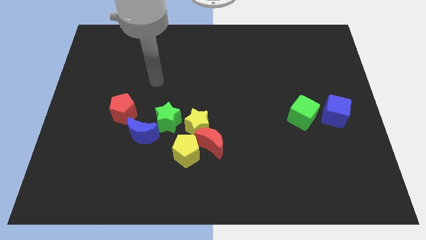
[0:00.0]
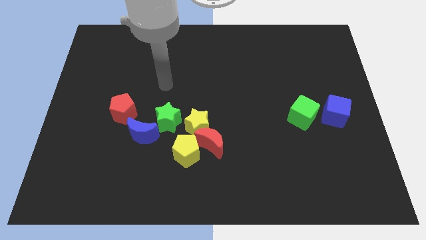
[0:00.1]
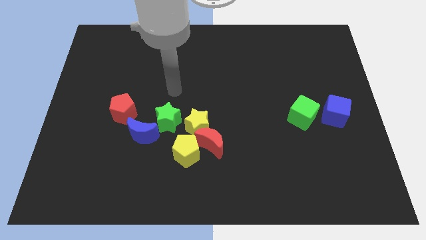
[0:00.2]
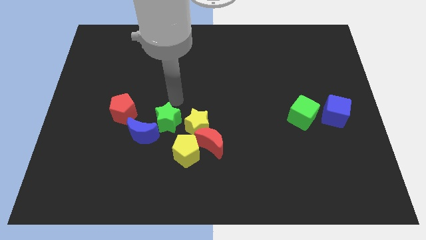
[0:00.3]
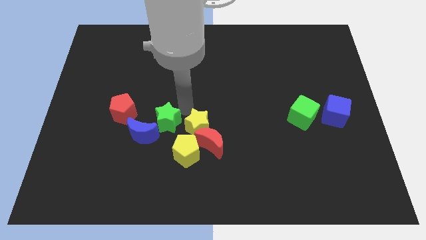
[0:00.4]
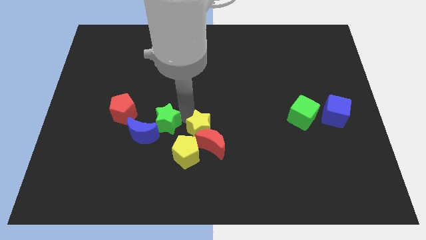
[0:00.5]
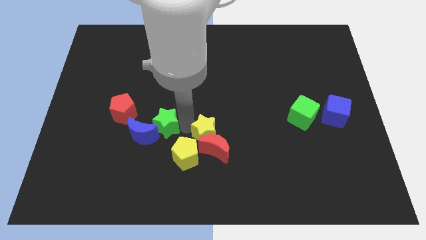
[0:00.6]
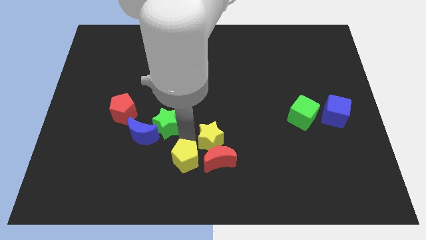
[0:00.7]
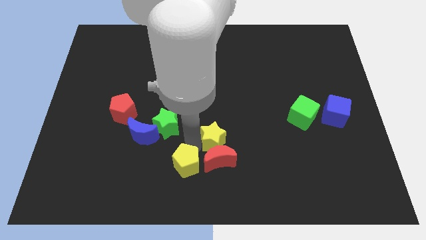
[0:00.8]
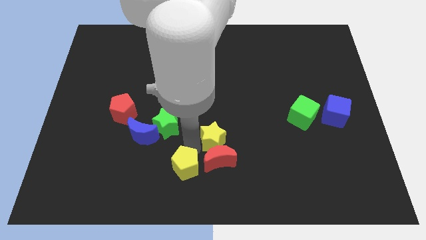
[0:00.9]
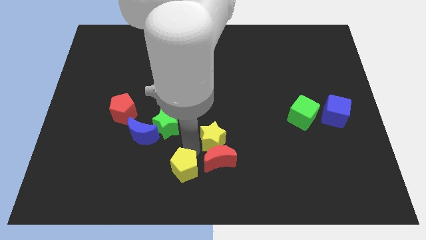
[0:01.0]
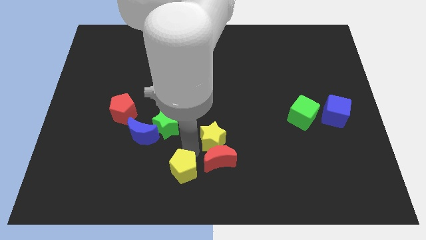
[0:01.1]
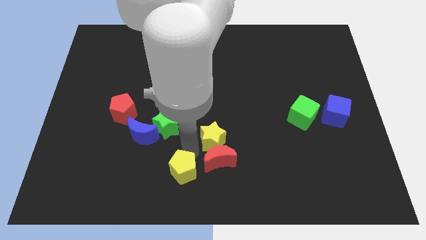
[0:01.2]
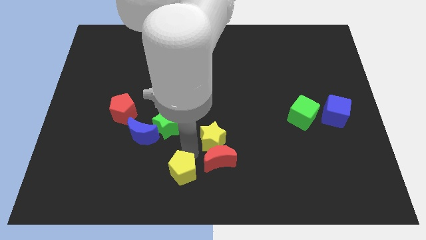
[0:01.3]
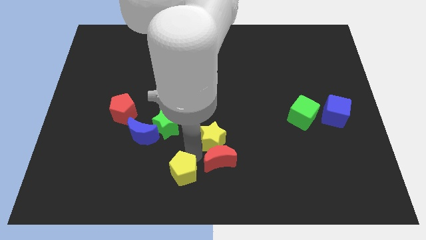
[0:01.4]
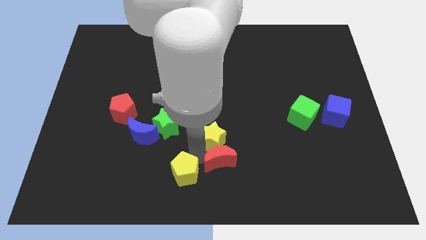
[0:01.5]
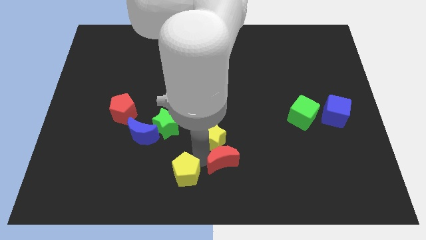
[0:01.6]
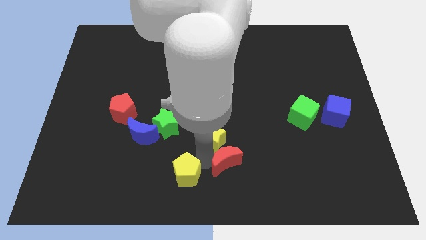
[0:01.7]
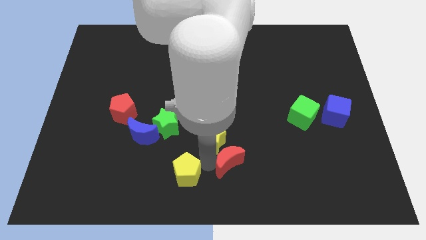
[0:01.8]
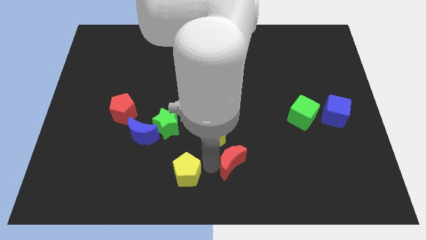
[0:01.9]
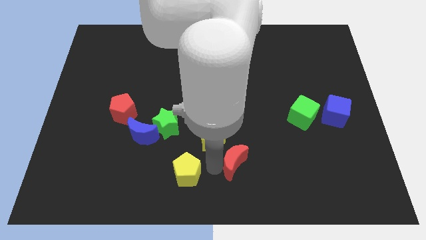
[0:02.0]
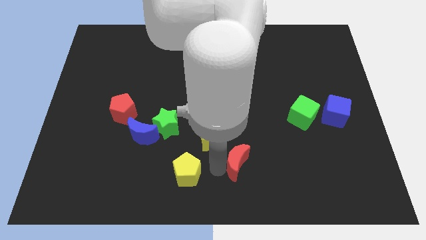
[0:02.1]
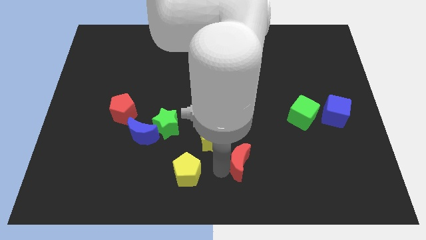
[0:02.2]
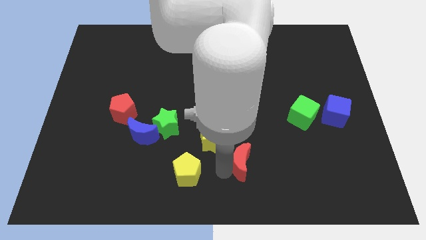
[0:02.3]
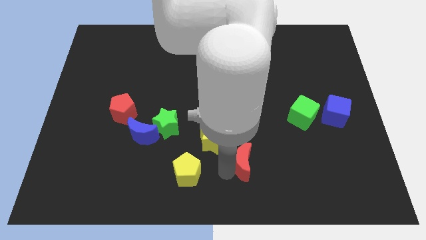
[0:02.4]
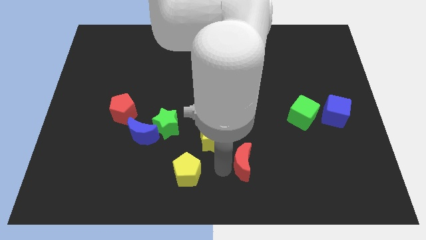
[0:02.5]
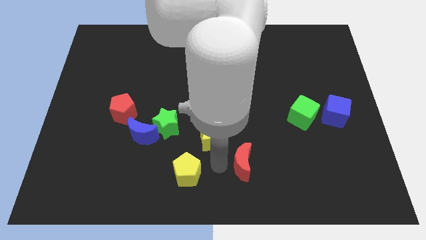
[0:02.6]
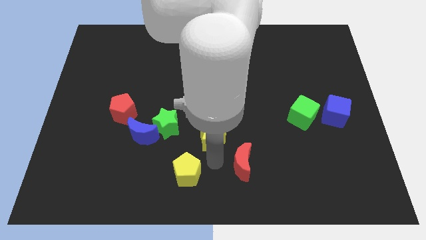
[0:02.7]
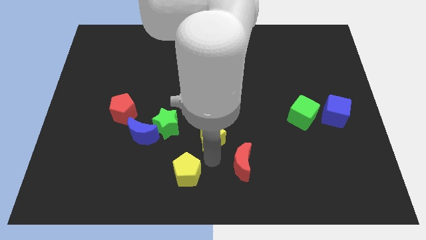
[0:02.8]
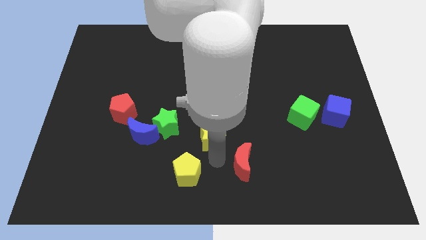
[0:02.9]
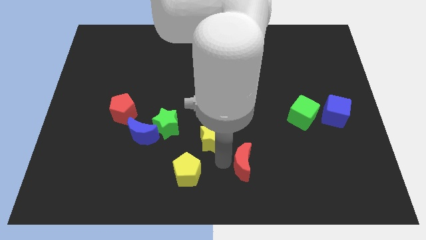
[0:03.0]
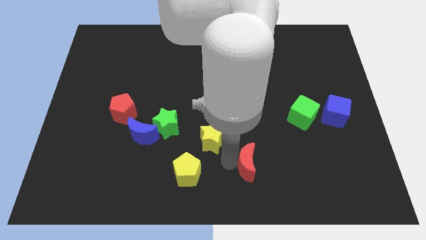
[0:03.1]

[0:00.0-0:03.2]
move the red moon away from the yellow star and yellow pentagon

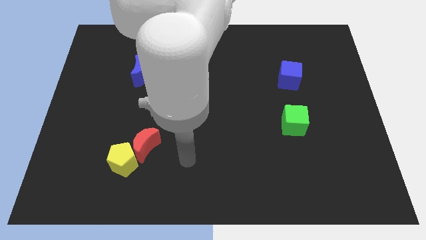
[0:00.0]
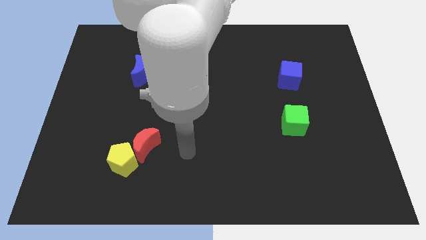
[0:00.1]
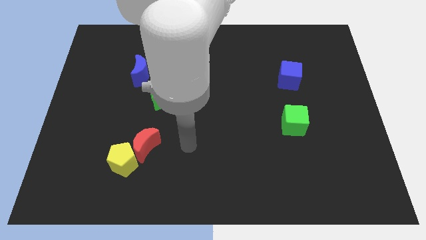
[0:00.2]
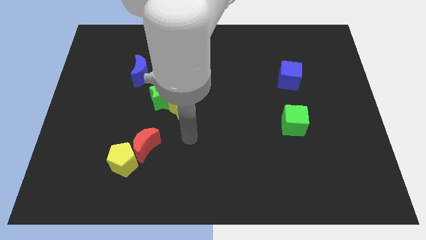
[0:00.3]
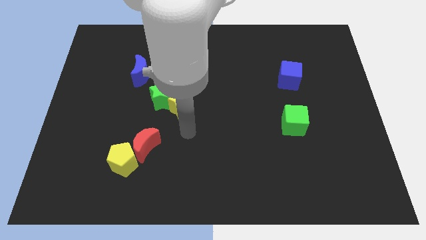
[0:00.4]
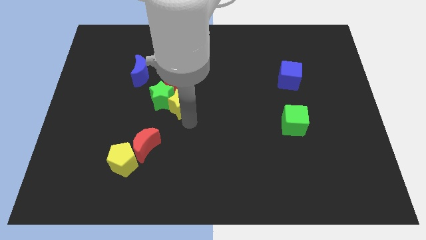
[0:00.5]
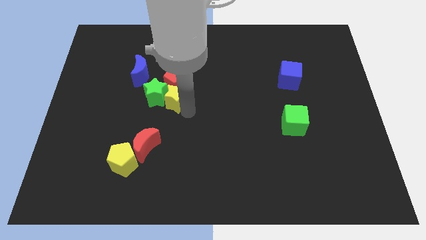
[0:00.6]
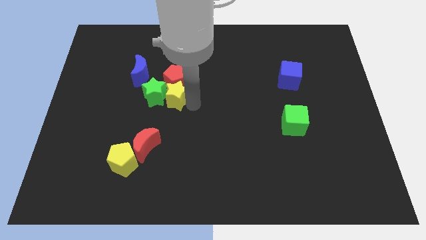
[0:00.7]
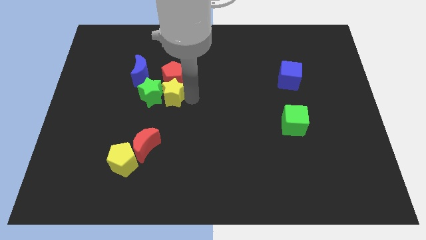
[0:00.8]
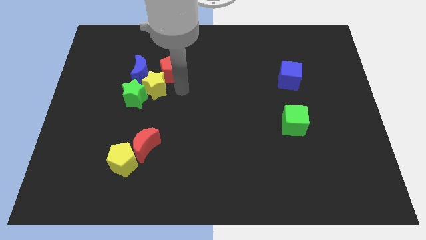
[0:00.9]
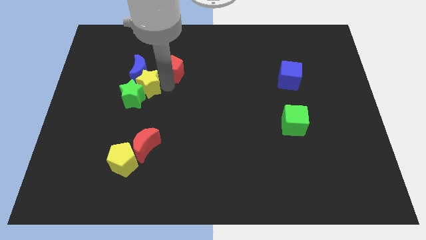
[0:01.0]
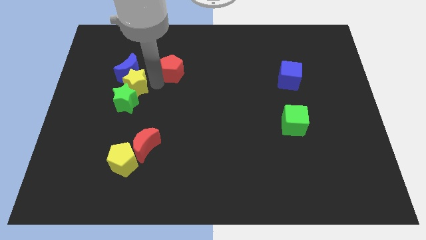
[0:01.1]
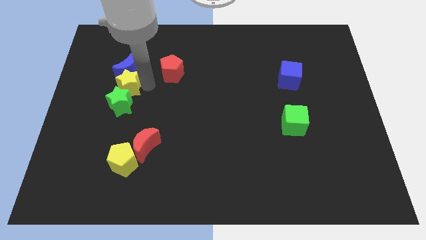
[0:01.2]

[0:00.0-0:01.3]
separate the green star from the red pentagon and yellow star

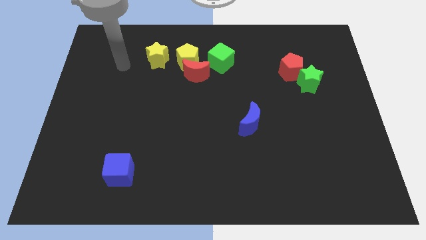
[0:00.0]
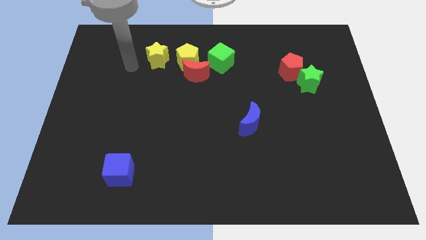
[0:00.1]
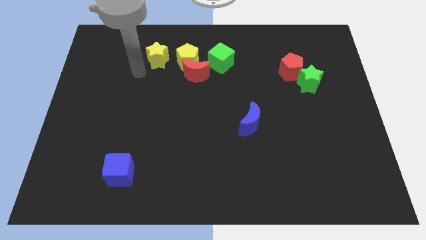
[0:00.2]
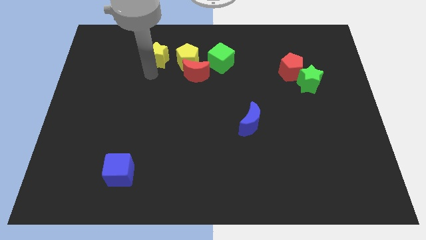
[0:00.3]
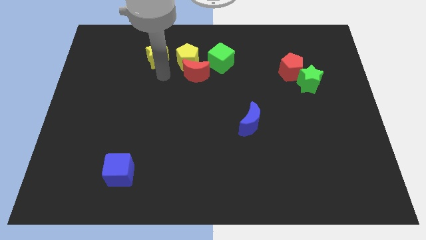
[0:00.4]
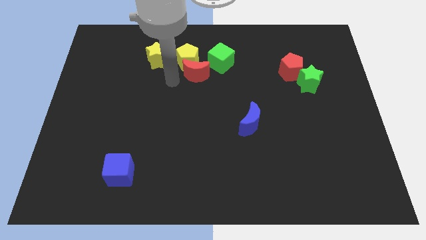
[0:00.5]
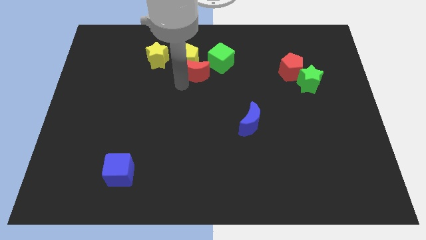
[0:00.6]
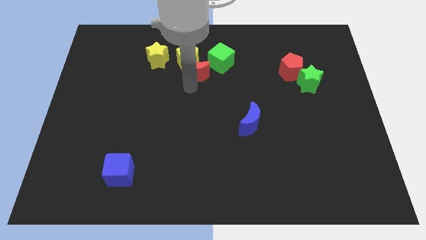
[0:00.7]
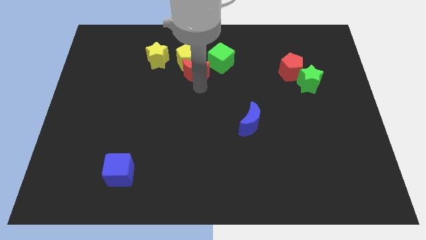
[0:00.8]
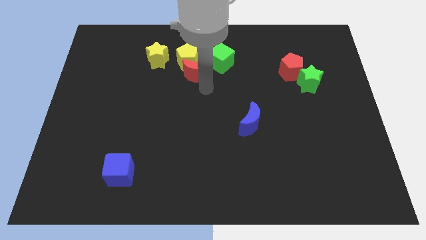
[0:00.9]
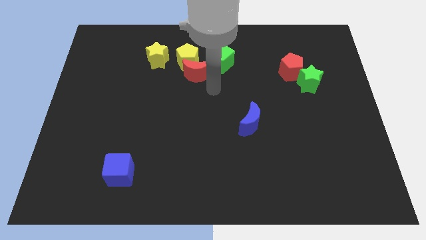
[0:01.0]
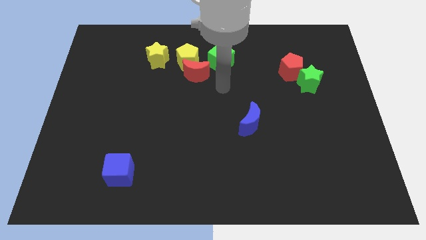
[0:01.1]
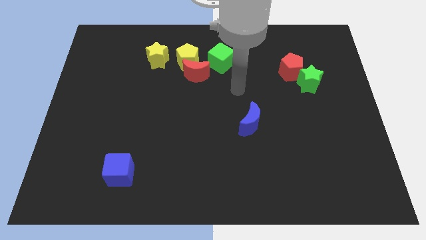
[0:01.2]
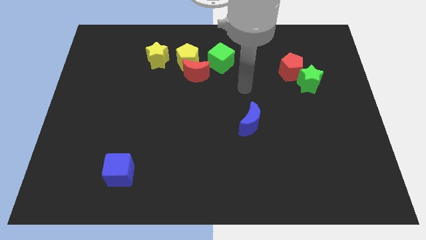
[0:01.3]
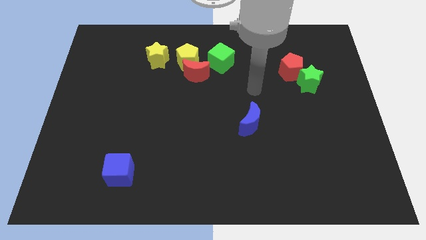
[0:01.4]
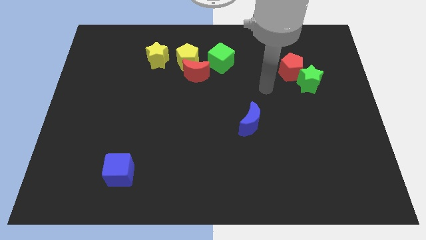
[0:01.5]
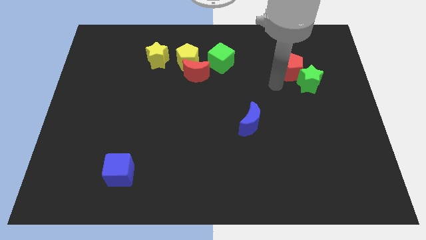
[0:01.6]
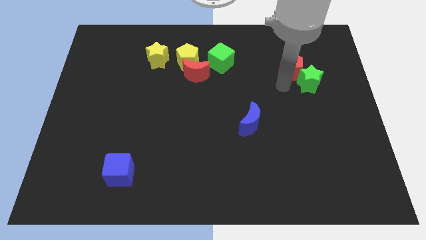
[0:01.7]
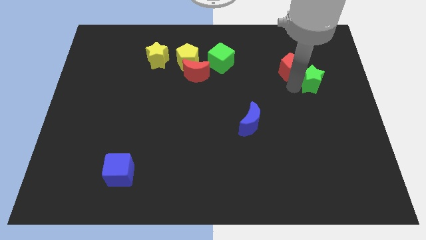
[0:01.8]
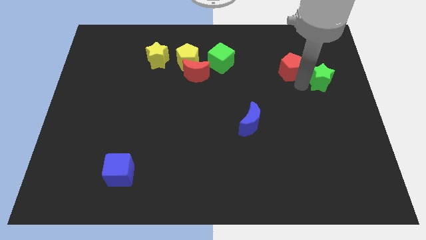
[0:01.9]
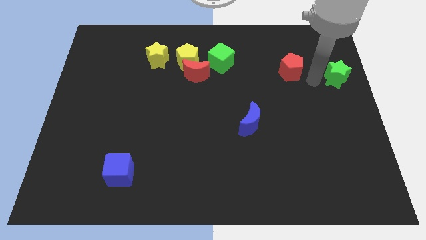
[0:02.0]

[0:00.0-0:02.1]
pull the red pentagon apart from the green star

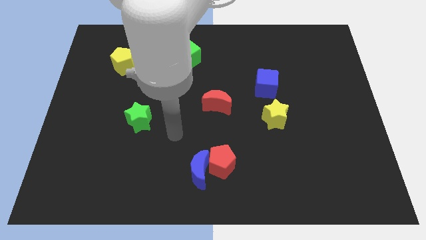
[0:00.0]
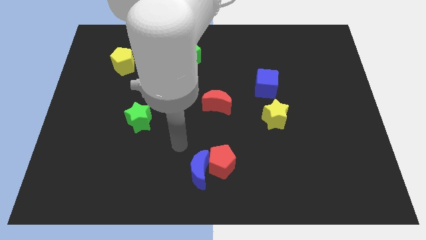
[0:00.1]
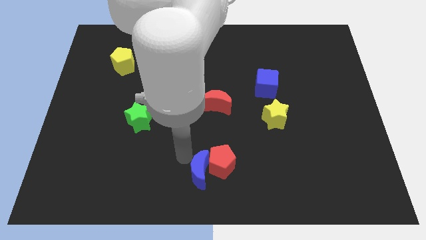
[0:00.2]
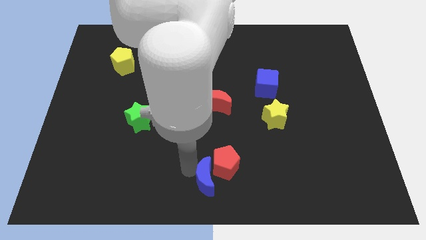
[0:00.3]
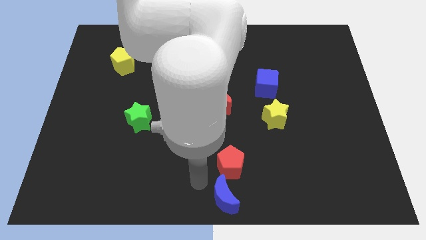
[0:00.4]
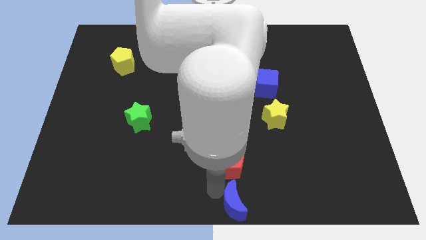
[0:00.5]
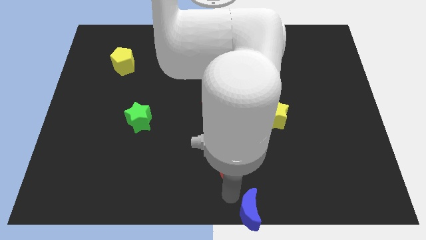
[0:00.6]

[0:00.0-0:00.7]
separate the red pentagon from the blue moon

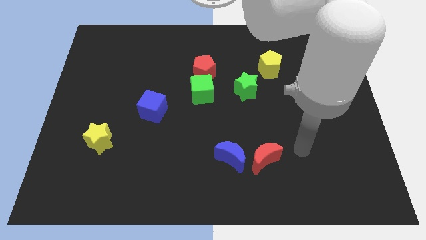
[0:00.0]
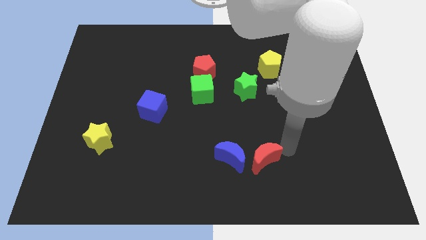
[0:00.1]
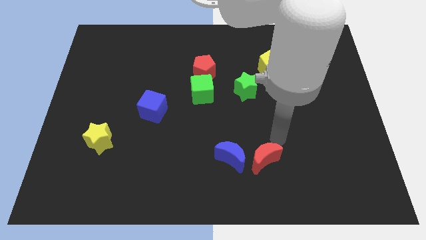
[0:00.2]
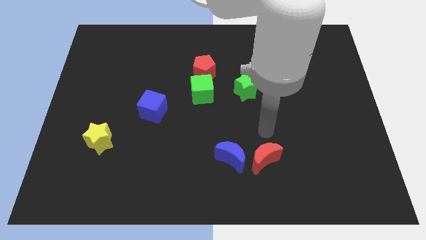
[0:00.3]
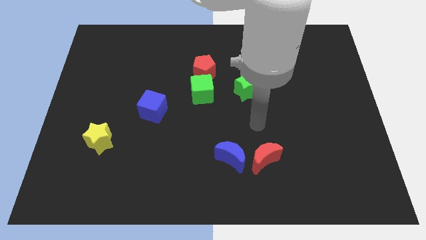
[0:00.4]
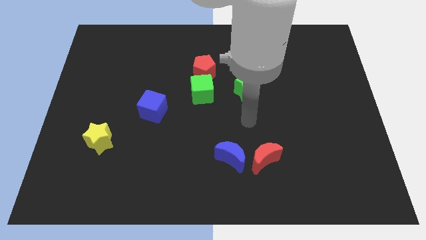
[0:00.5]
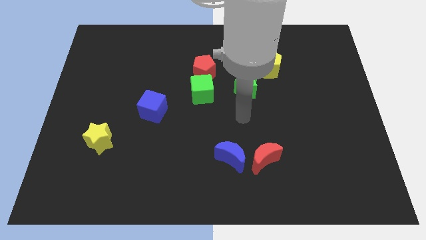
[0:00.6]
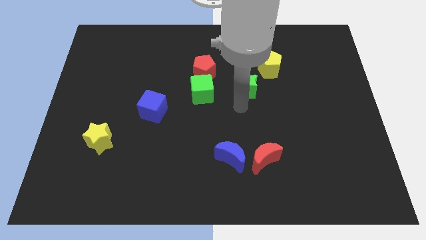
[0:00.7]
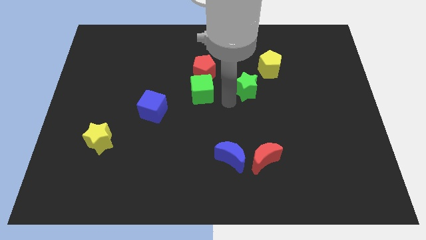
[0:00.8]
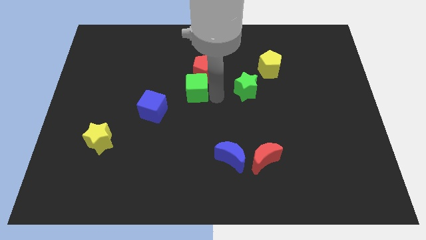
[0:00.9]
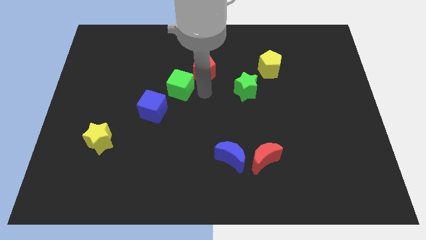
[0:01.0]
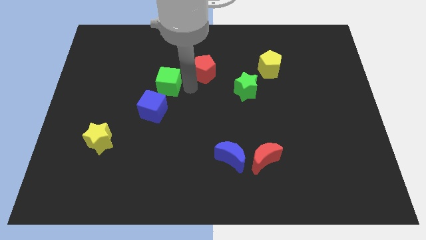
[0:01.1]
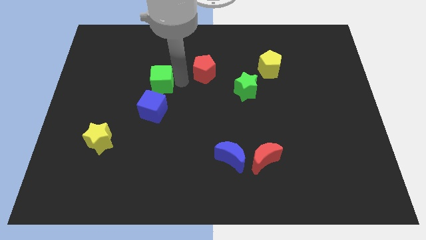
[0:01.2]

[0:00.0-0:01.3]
move the red pentagon away from the green cube

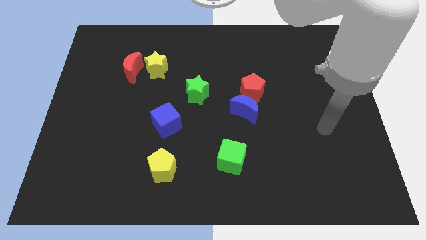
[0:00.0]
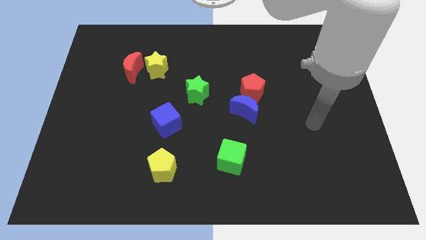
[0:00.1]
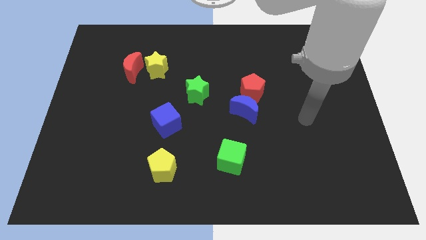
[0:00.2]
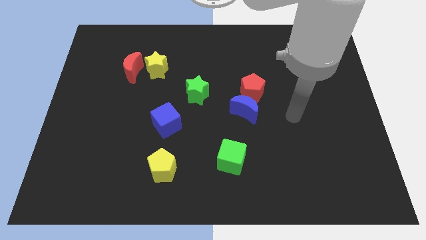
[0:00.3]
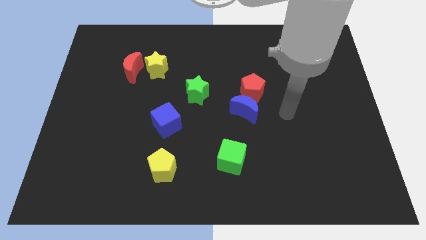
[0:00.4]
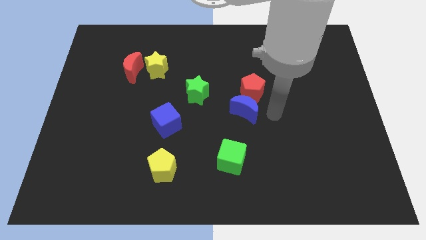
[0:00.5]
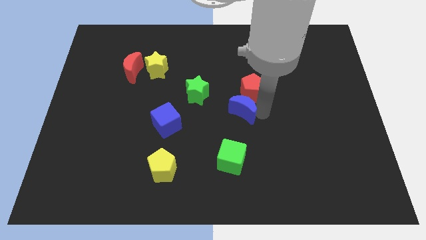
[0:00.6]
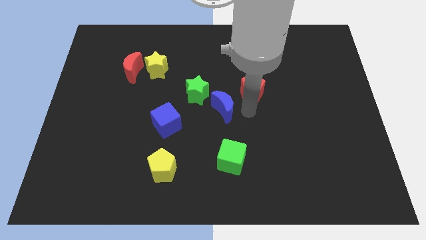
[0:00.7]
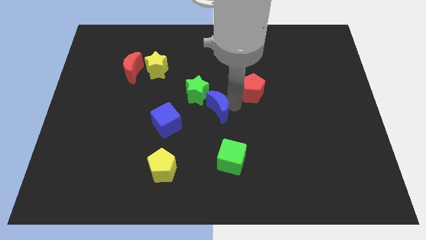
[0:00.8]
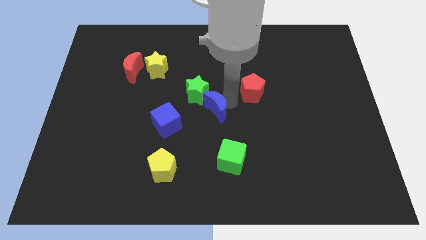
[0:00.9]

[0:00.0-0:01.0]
move the red pentagon away from the blue moon
